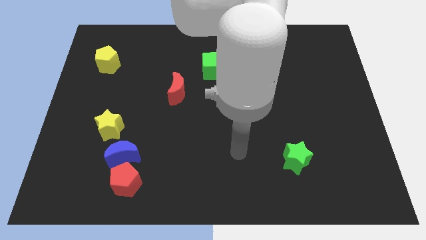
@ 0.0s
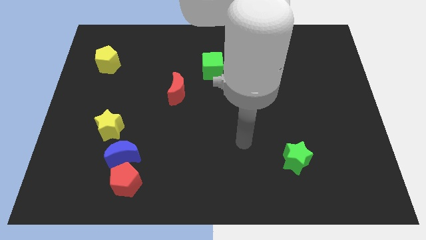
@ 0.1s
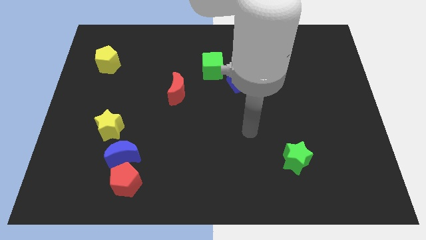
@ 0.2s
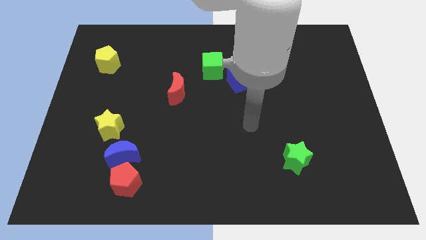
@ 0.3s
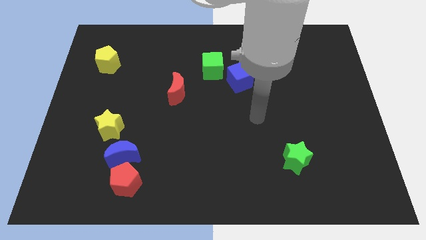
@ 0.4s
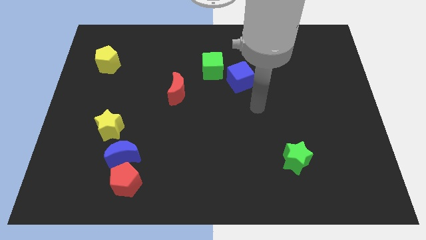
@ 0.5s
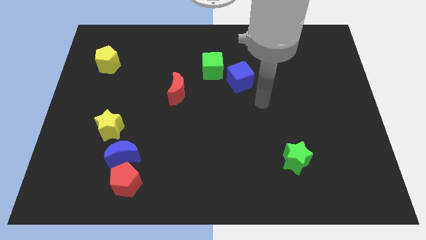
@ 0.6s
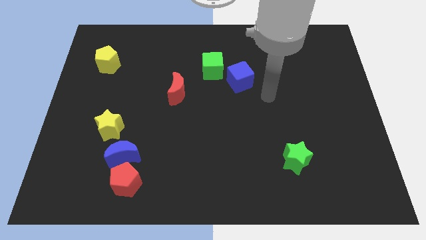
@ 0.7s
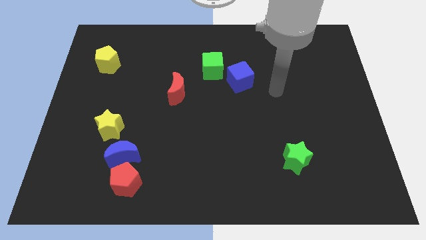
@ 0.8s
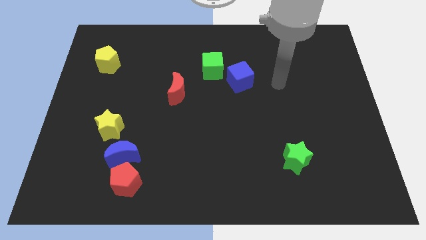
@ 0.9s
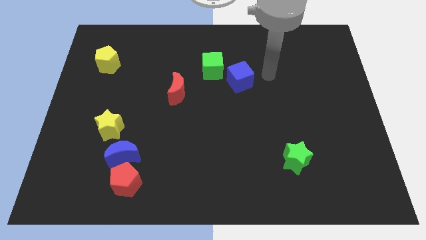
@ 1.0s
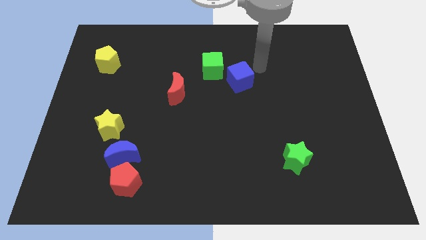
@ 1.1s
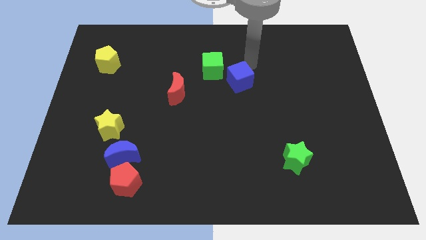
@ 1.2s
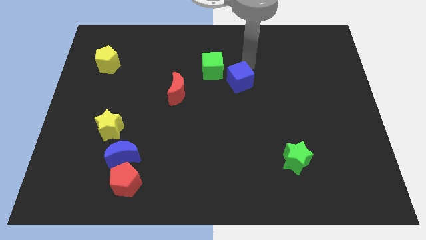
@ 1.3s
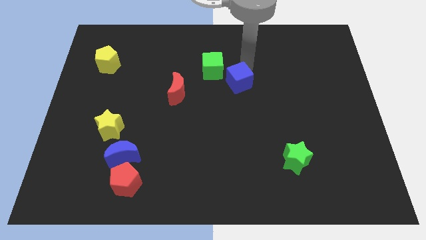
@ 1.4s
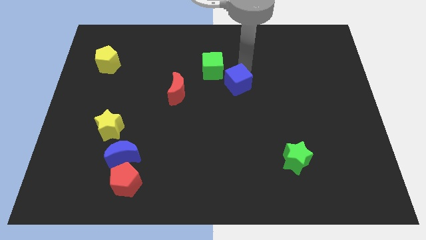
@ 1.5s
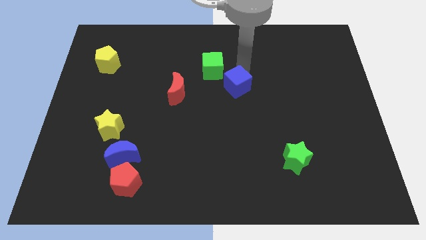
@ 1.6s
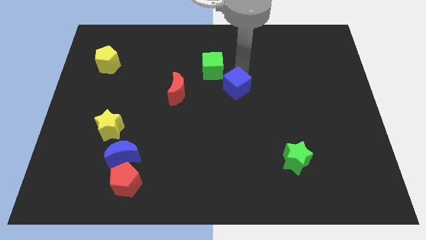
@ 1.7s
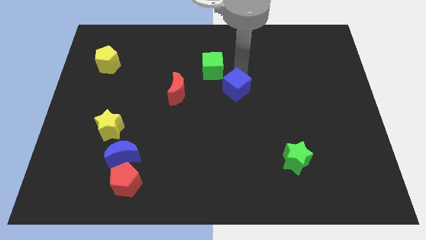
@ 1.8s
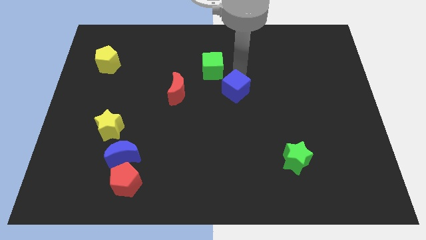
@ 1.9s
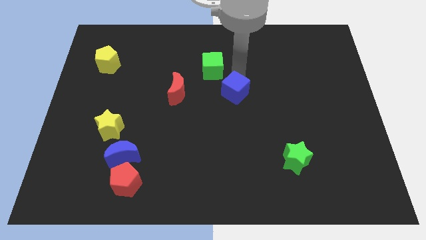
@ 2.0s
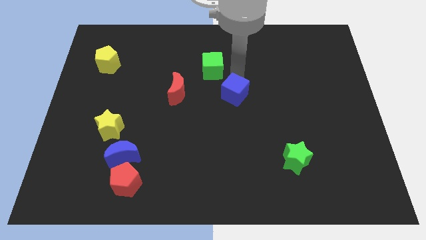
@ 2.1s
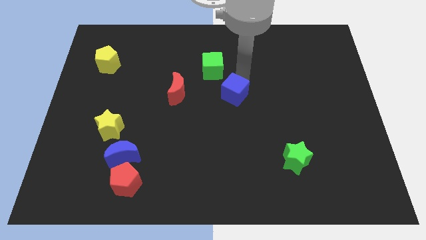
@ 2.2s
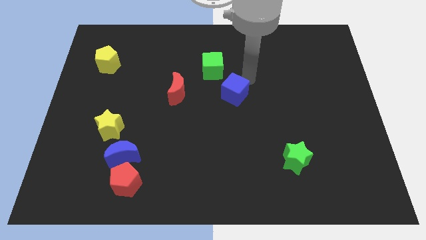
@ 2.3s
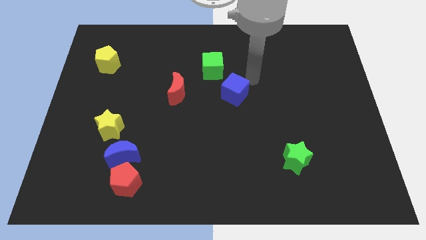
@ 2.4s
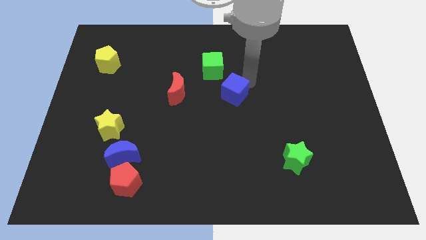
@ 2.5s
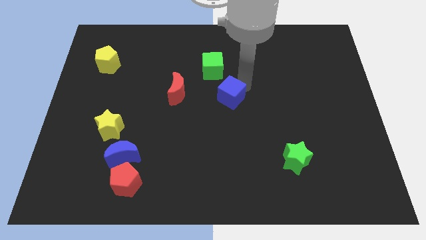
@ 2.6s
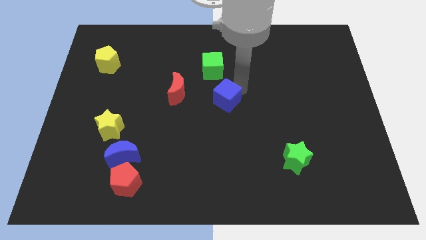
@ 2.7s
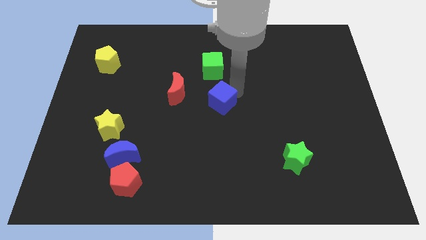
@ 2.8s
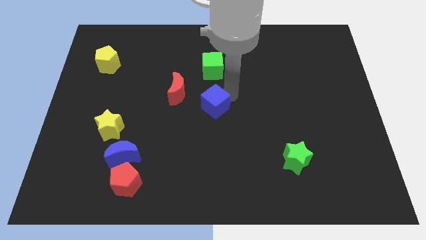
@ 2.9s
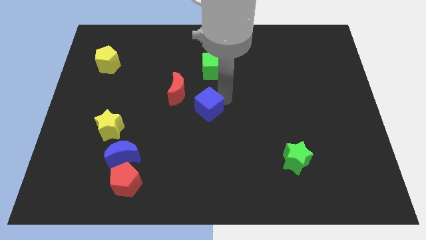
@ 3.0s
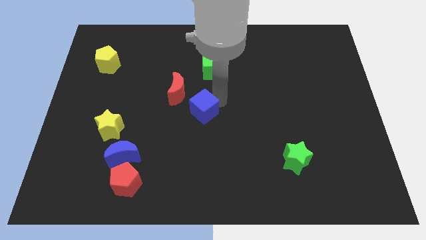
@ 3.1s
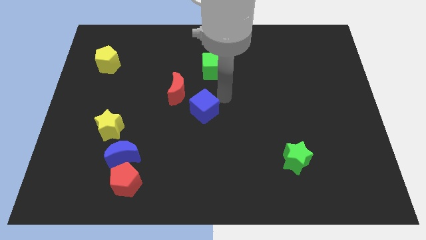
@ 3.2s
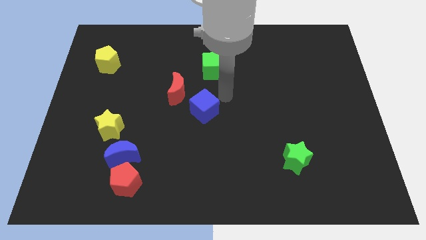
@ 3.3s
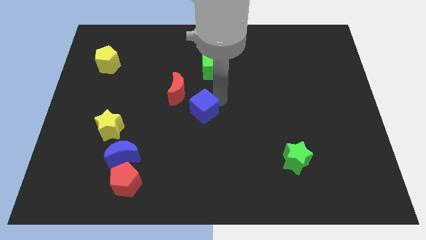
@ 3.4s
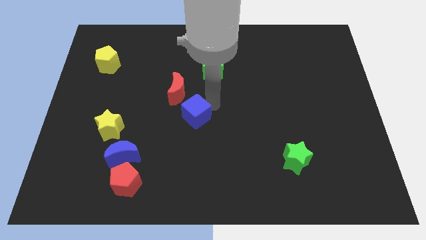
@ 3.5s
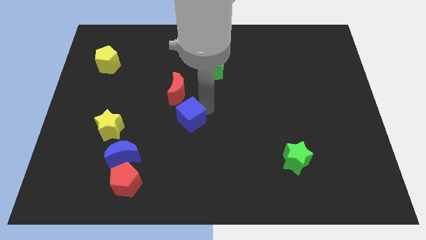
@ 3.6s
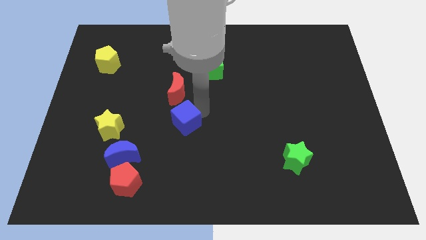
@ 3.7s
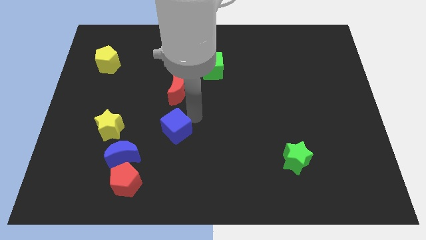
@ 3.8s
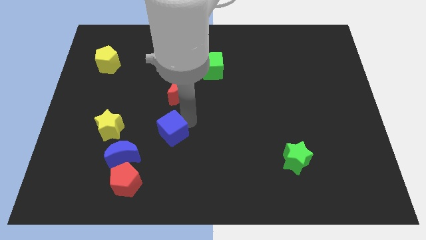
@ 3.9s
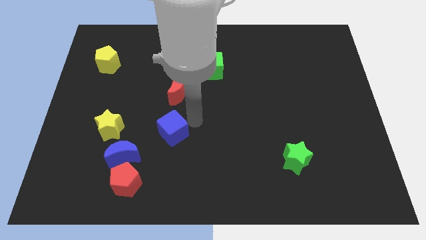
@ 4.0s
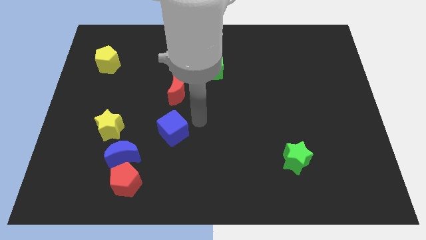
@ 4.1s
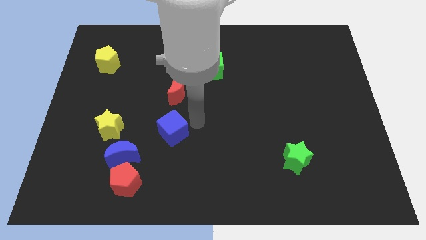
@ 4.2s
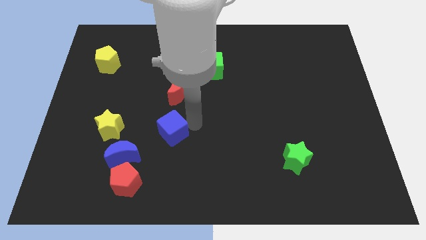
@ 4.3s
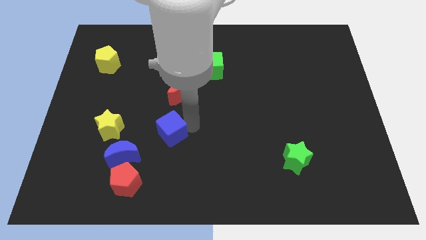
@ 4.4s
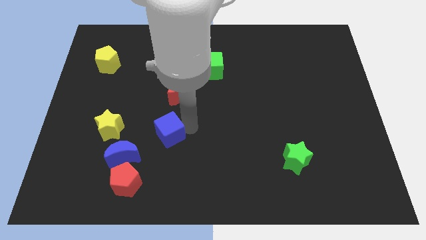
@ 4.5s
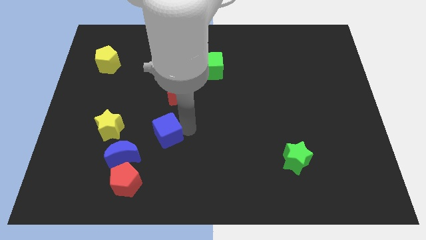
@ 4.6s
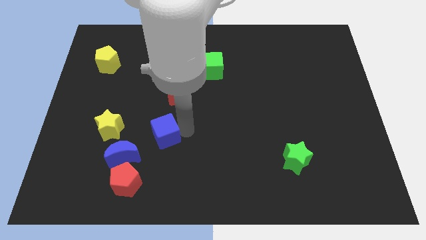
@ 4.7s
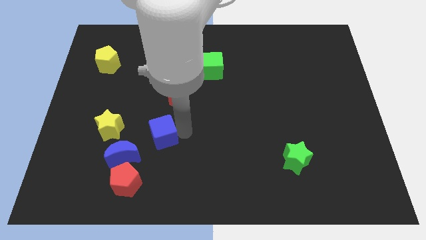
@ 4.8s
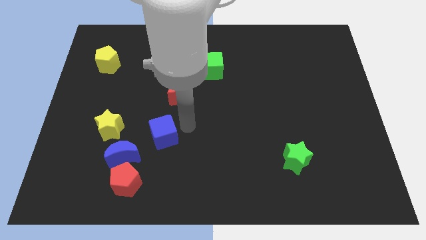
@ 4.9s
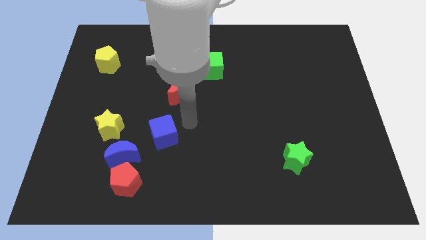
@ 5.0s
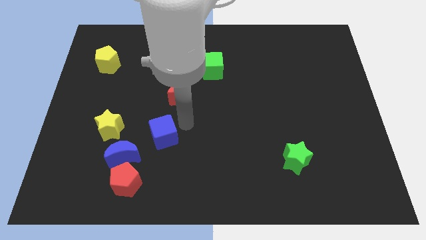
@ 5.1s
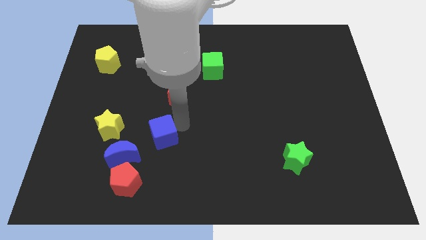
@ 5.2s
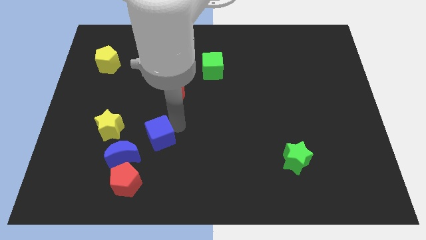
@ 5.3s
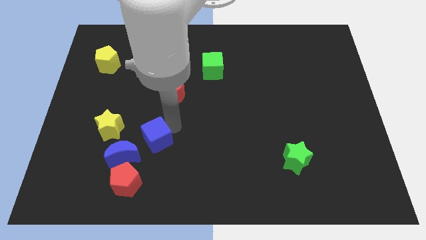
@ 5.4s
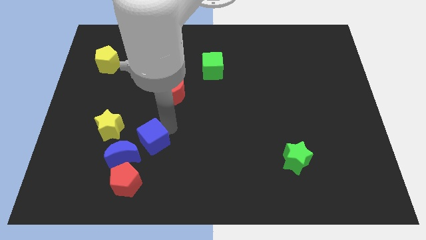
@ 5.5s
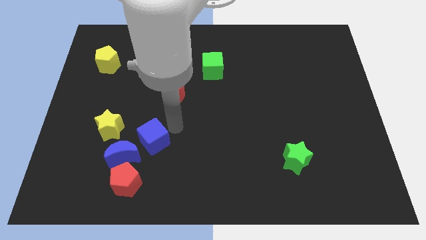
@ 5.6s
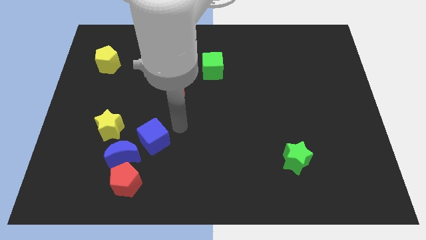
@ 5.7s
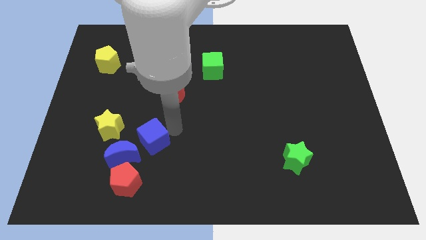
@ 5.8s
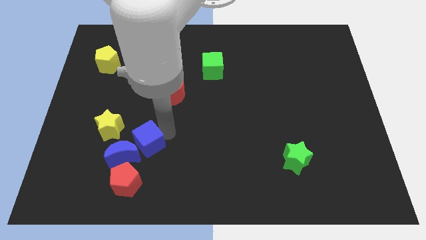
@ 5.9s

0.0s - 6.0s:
slide the blue cube to the blue moon

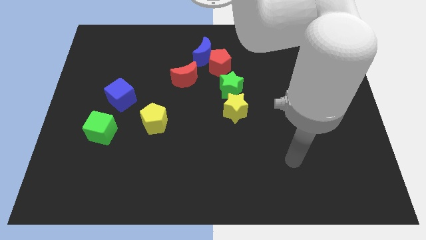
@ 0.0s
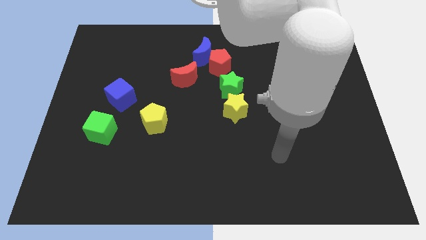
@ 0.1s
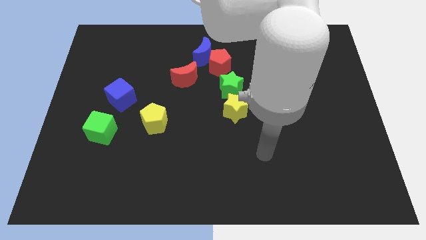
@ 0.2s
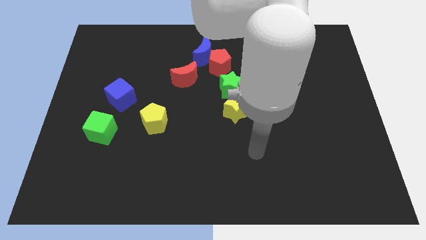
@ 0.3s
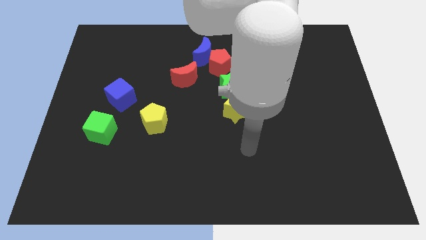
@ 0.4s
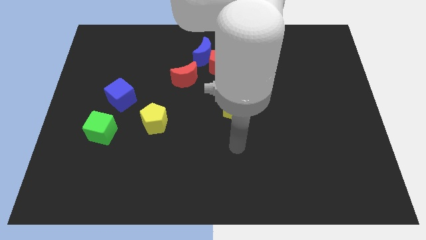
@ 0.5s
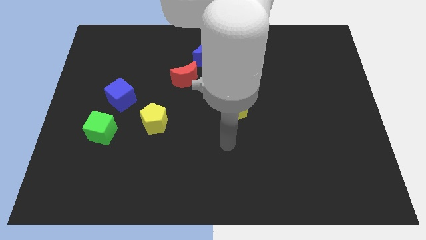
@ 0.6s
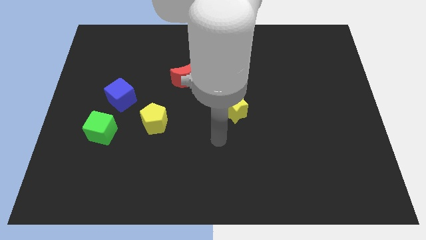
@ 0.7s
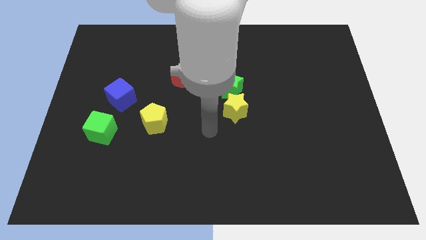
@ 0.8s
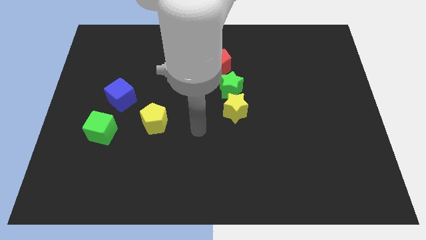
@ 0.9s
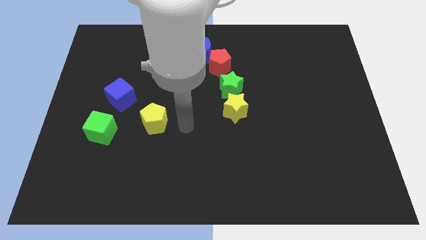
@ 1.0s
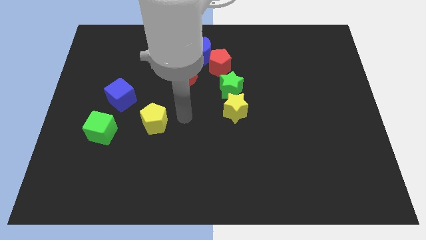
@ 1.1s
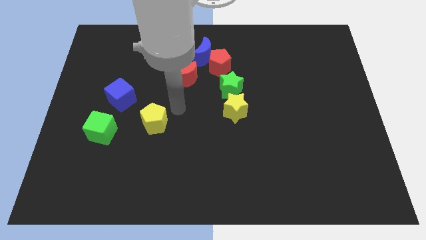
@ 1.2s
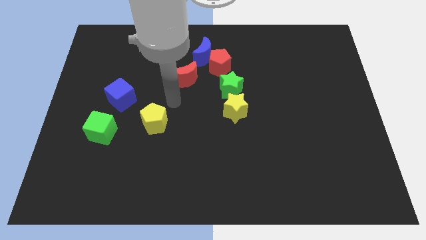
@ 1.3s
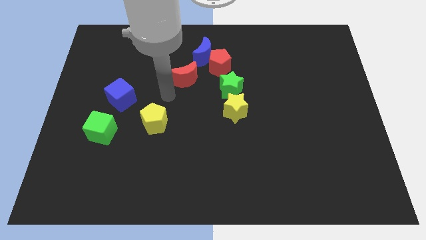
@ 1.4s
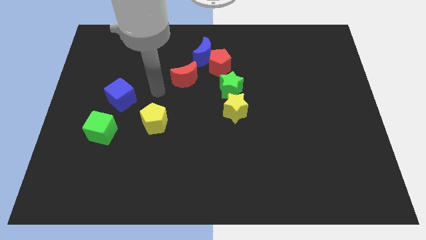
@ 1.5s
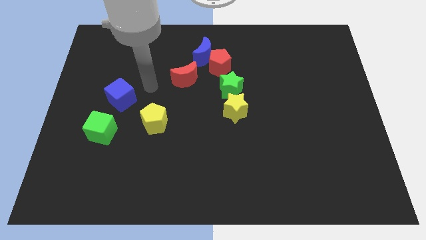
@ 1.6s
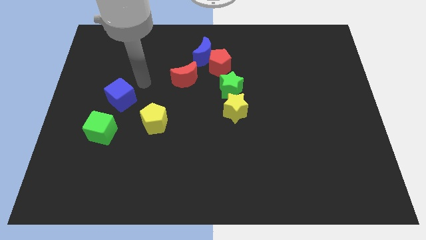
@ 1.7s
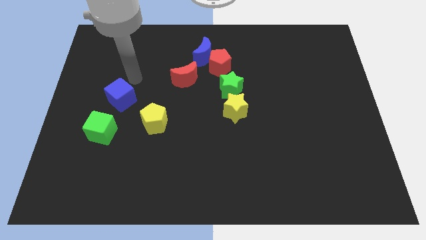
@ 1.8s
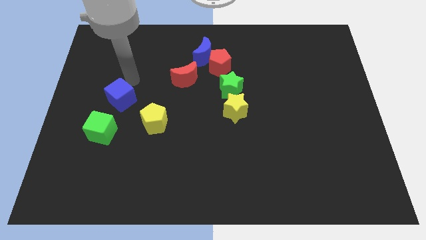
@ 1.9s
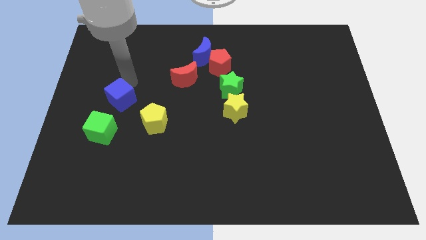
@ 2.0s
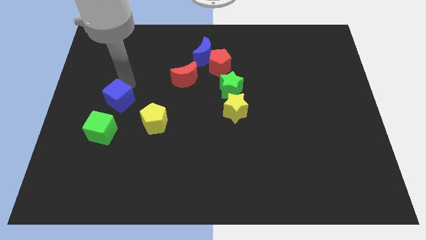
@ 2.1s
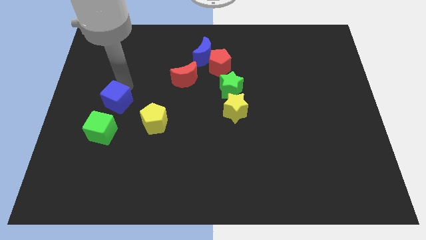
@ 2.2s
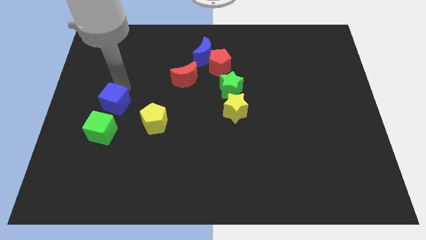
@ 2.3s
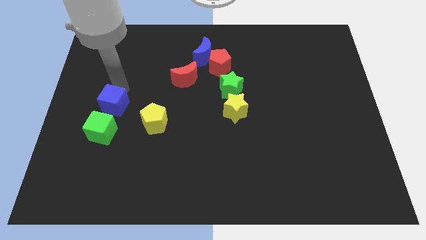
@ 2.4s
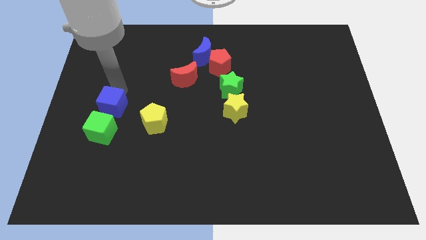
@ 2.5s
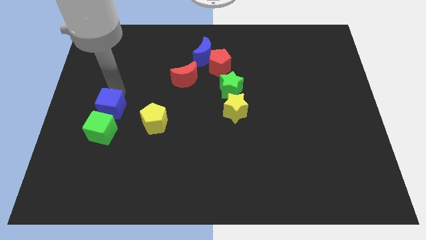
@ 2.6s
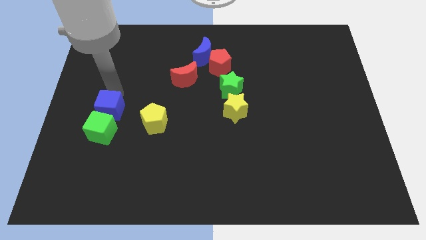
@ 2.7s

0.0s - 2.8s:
slide the blue cube close to the green cube
